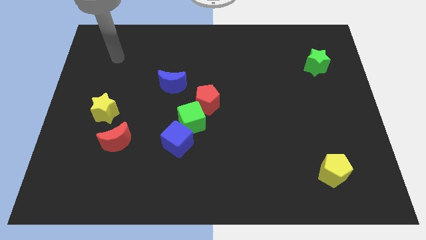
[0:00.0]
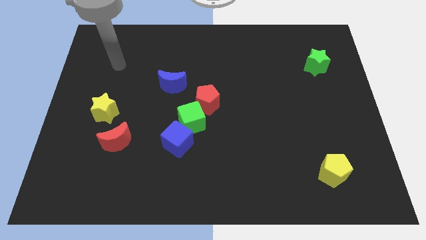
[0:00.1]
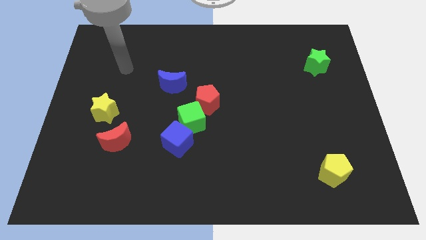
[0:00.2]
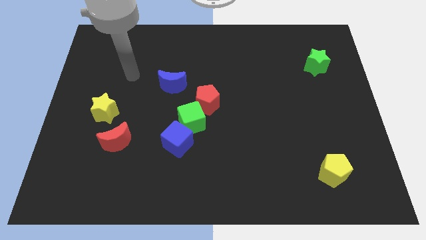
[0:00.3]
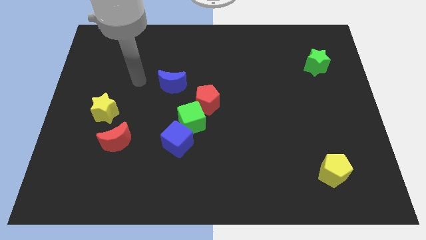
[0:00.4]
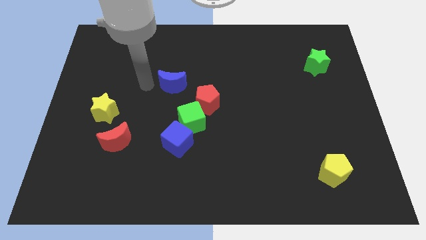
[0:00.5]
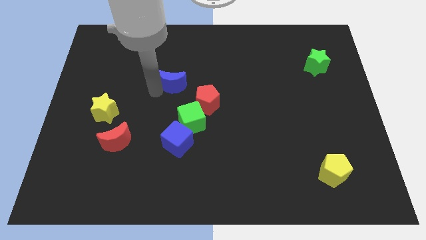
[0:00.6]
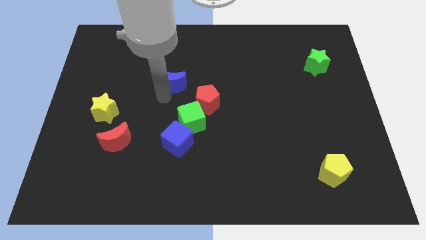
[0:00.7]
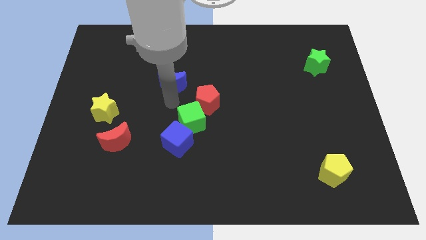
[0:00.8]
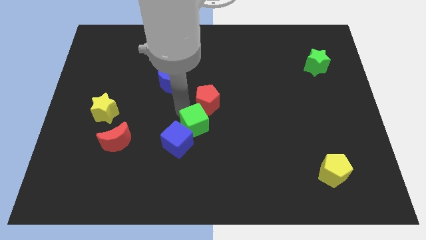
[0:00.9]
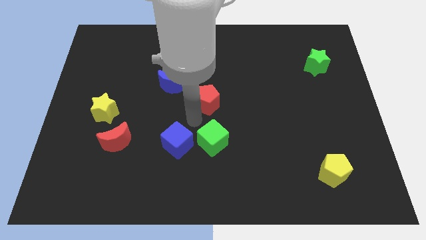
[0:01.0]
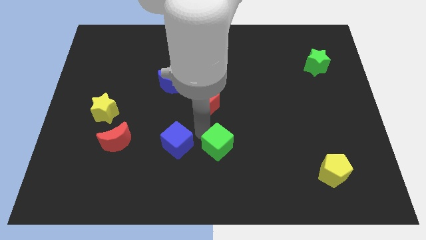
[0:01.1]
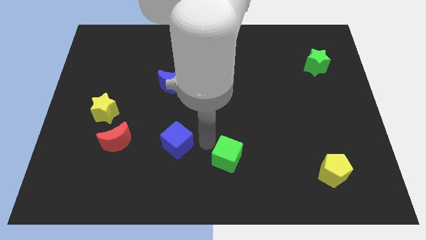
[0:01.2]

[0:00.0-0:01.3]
separate the blue cube from the green cube

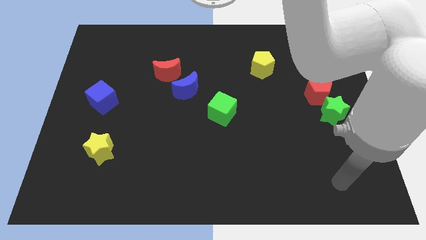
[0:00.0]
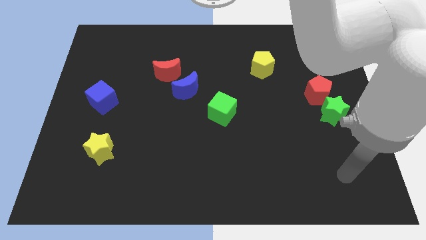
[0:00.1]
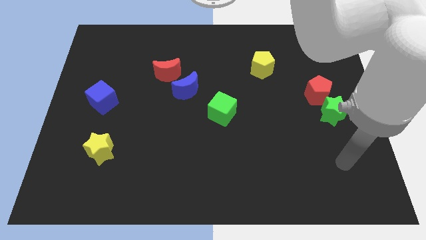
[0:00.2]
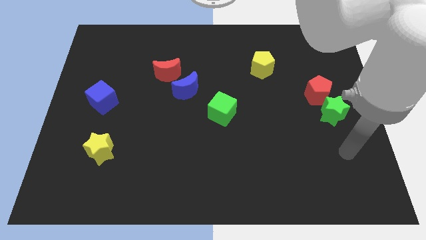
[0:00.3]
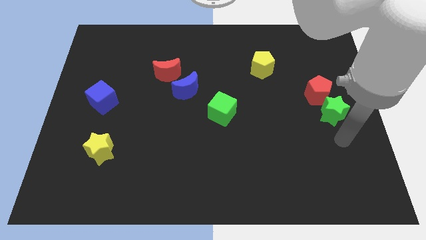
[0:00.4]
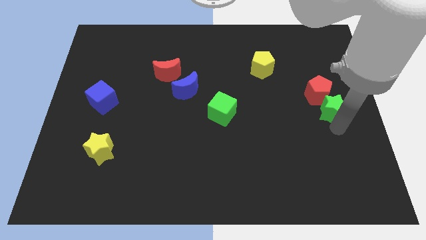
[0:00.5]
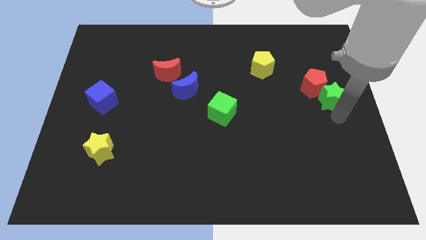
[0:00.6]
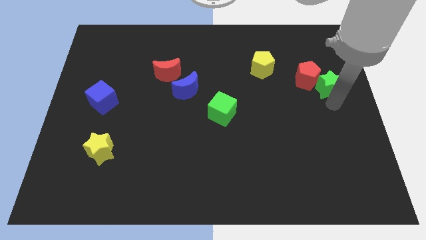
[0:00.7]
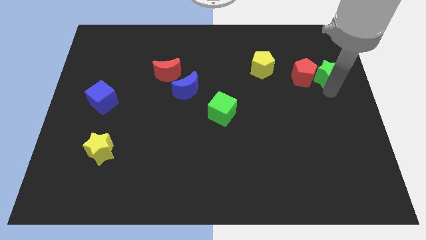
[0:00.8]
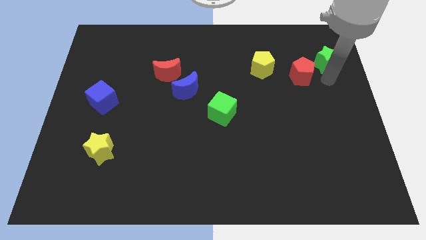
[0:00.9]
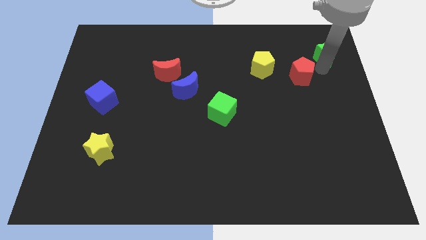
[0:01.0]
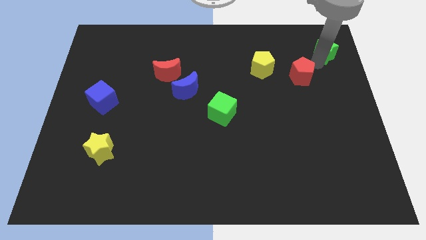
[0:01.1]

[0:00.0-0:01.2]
pull the red pentagon apart from the green star

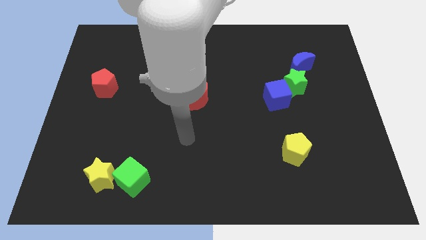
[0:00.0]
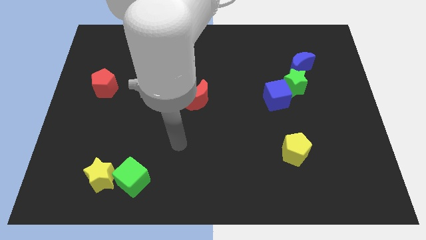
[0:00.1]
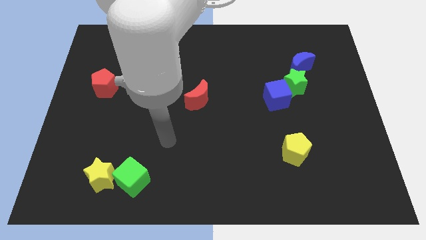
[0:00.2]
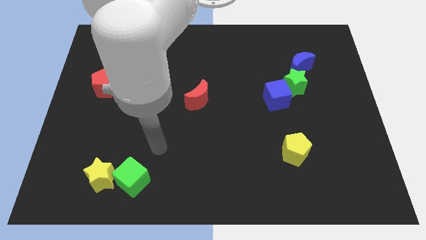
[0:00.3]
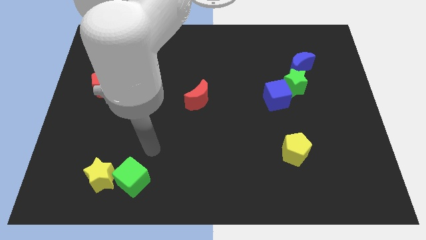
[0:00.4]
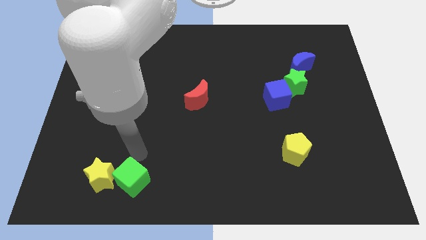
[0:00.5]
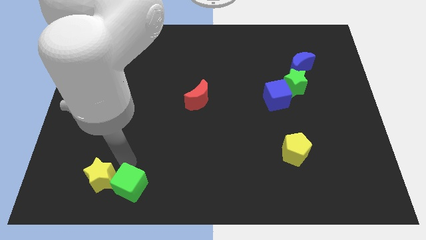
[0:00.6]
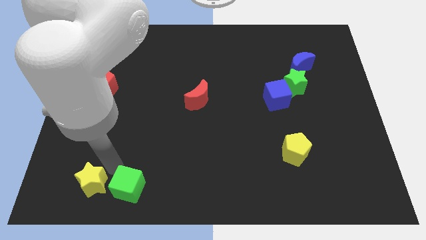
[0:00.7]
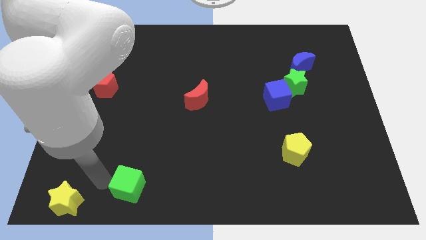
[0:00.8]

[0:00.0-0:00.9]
move the green cube away from the yellow star

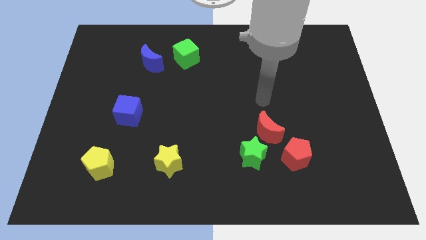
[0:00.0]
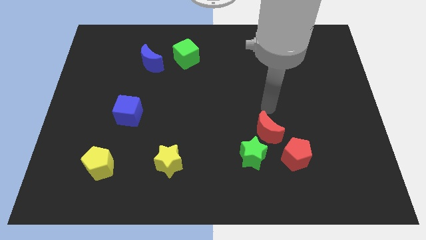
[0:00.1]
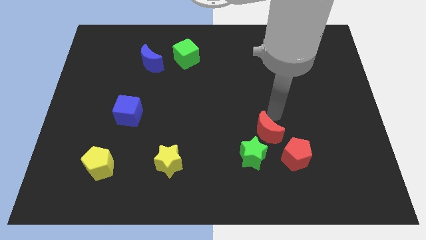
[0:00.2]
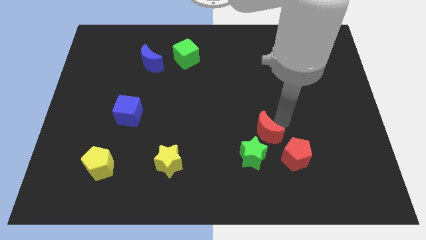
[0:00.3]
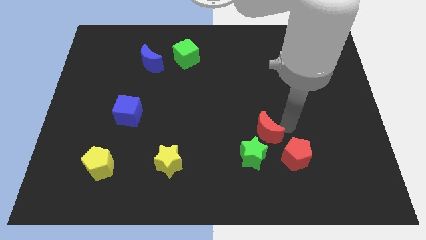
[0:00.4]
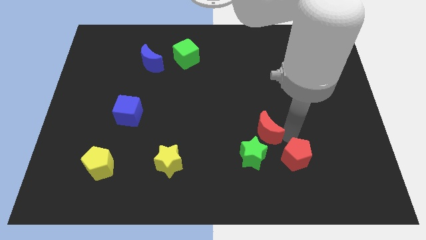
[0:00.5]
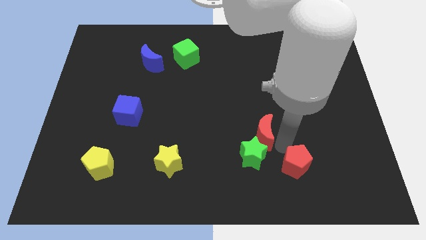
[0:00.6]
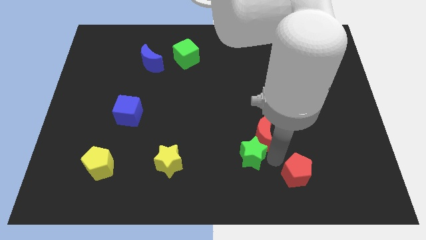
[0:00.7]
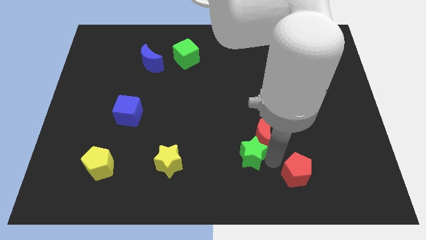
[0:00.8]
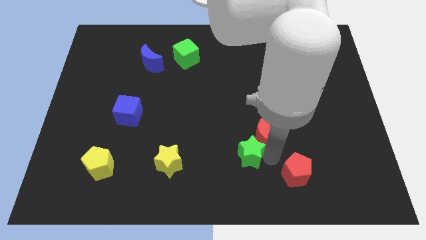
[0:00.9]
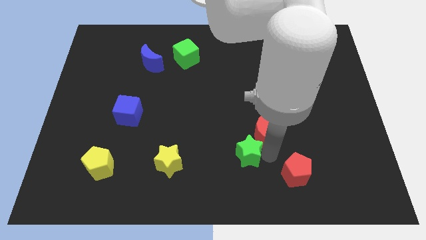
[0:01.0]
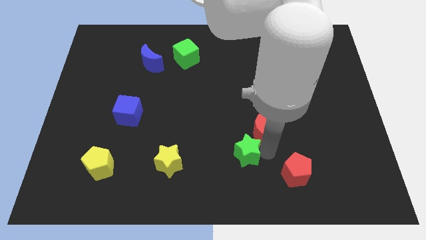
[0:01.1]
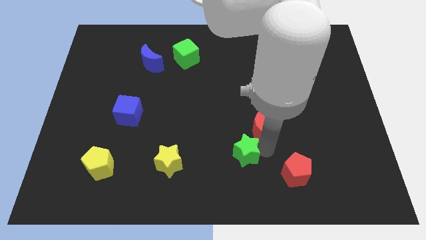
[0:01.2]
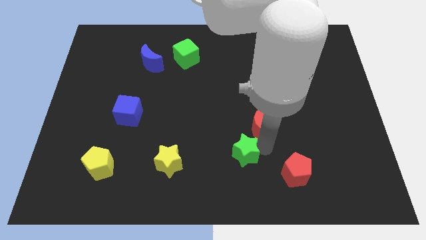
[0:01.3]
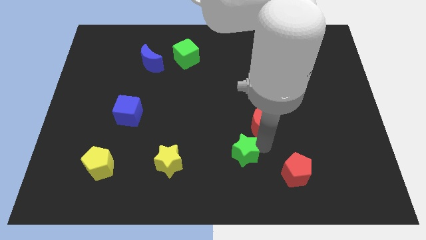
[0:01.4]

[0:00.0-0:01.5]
move the red moon away from the green star and red pentagon

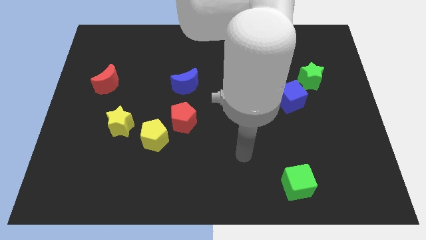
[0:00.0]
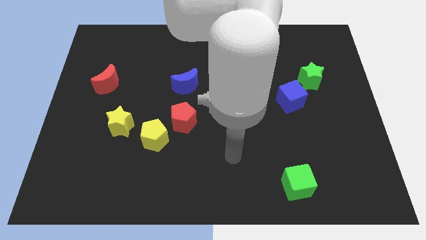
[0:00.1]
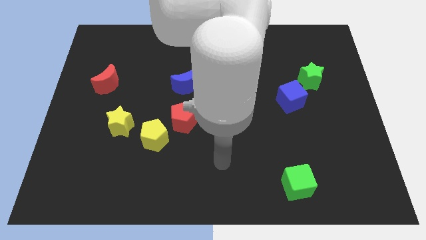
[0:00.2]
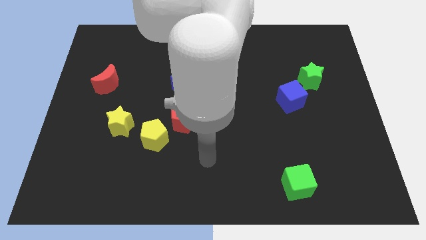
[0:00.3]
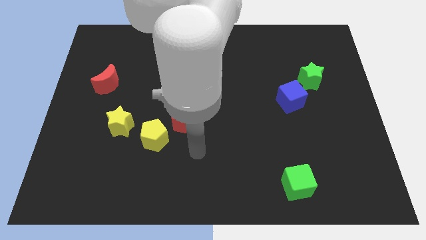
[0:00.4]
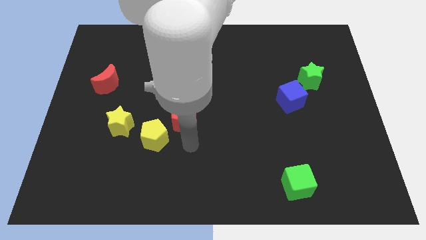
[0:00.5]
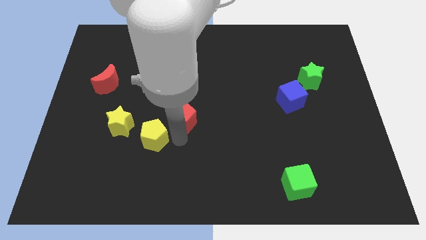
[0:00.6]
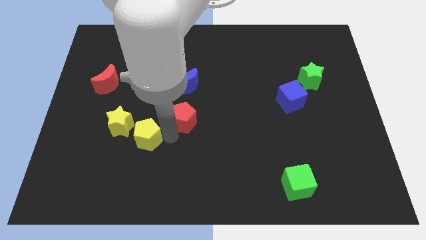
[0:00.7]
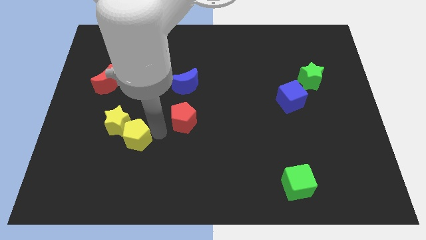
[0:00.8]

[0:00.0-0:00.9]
separate the red pentagon from the yellow pentagon

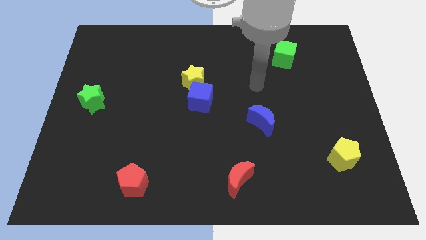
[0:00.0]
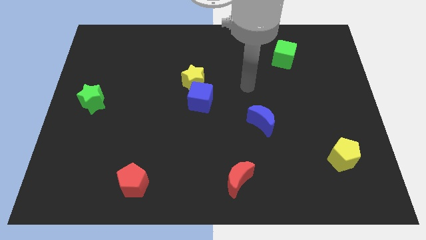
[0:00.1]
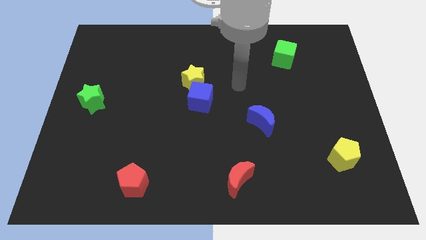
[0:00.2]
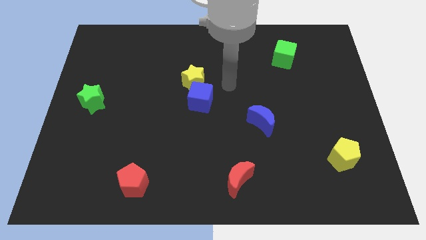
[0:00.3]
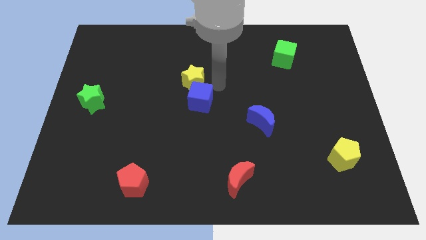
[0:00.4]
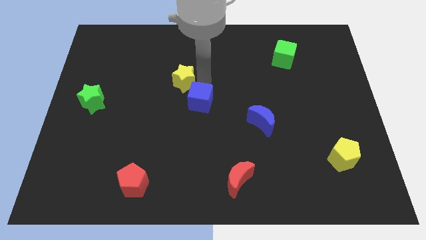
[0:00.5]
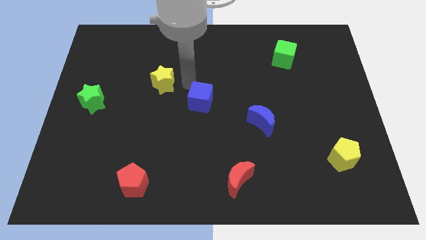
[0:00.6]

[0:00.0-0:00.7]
pull the blue cube apart from the yellow star

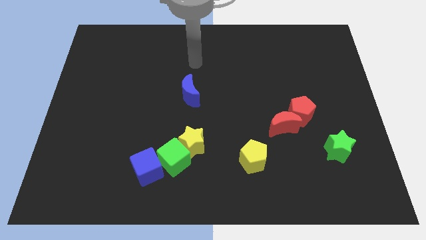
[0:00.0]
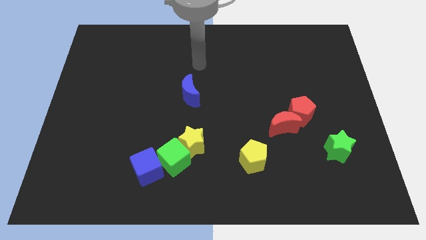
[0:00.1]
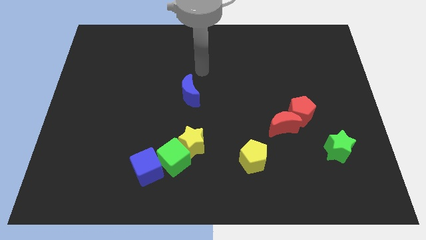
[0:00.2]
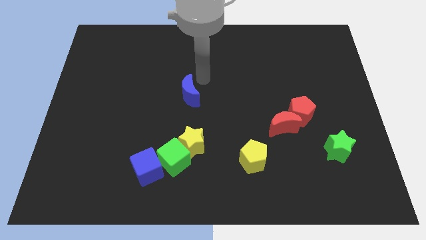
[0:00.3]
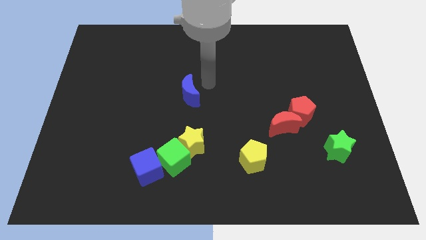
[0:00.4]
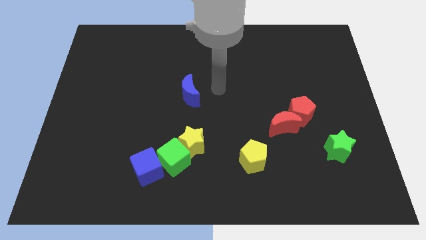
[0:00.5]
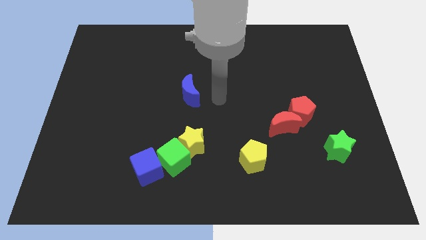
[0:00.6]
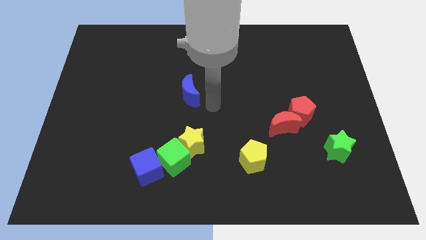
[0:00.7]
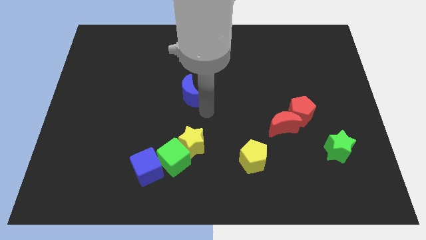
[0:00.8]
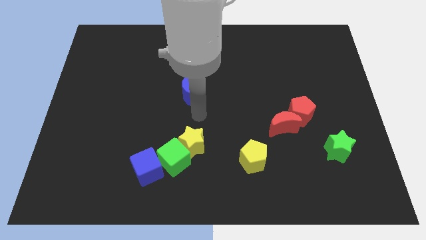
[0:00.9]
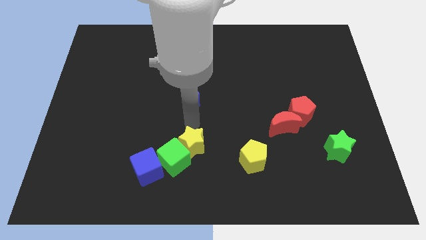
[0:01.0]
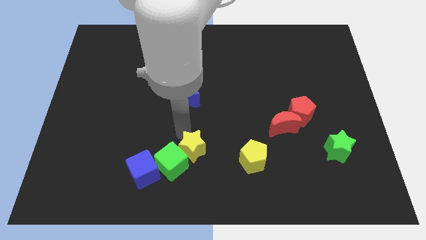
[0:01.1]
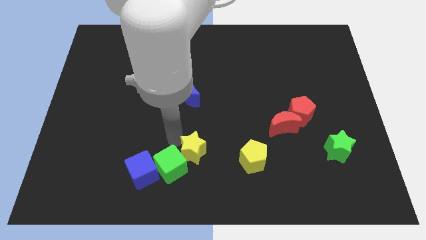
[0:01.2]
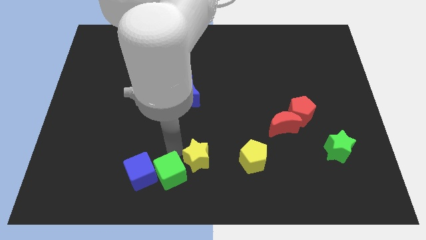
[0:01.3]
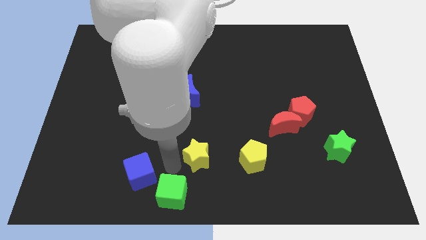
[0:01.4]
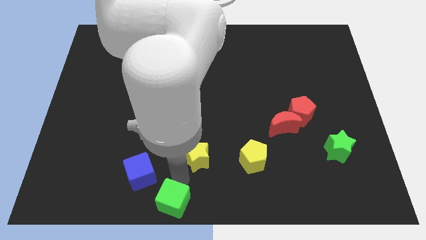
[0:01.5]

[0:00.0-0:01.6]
move the yellow star away from the green cube

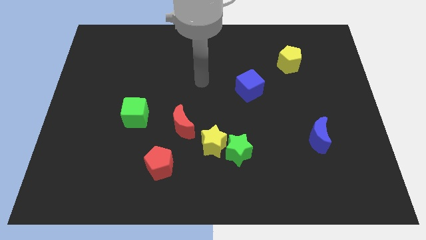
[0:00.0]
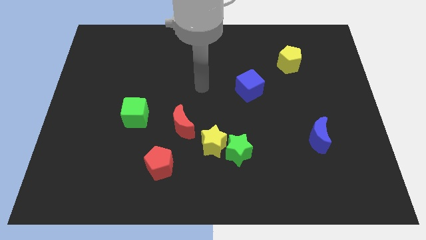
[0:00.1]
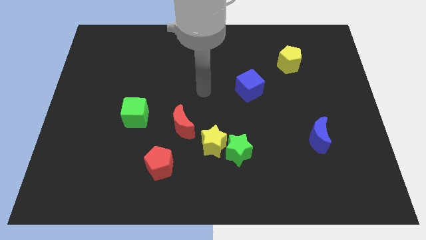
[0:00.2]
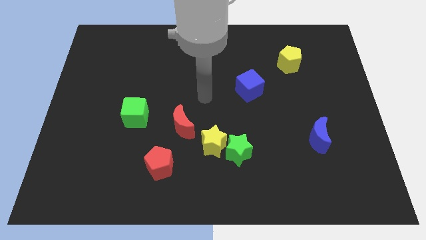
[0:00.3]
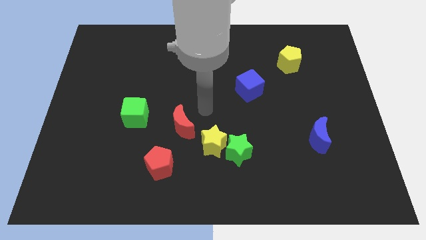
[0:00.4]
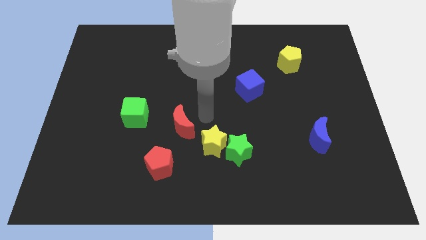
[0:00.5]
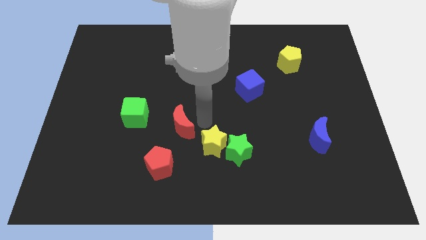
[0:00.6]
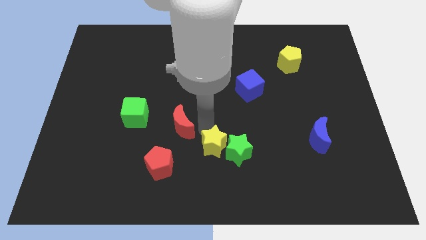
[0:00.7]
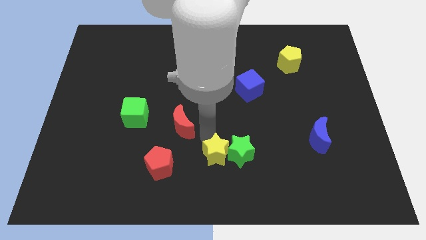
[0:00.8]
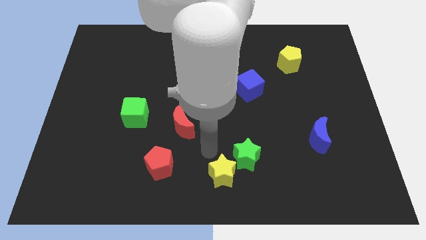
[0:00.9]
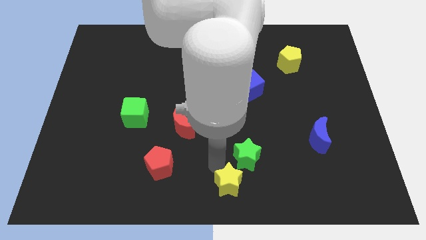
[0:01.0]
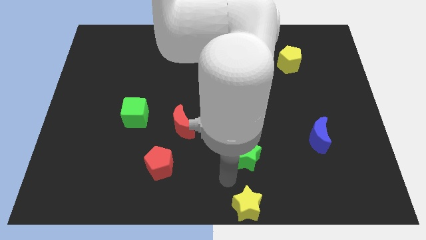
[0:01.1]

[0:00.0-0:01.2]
separate the green star from the yellow star
